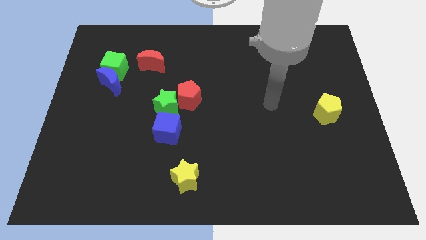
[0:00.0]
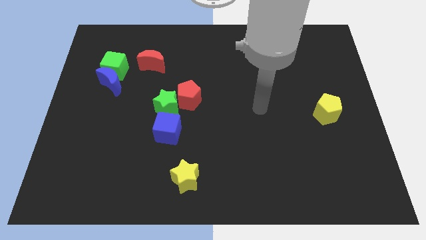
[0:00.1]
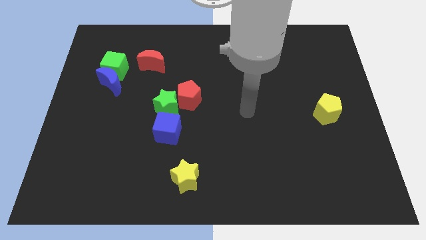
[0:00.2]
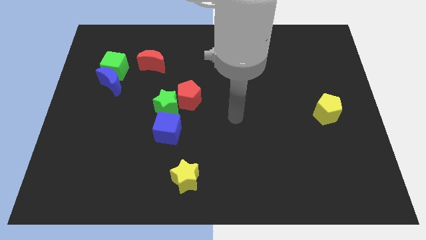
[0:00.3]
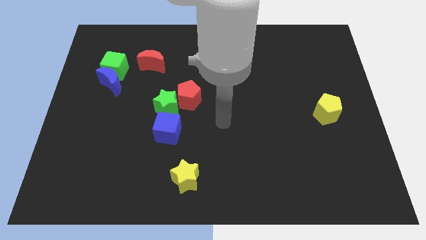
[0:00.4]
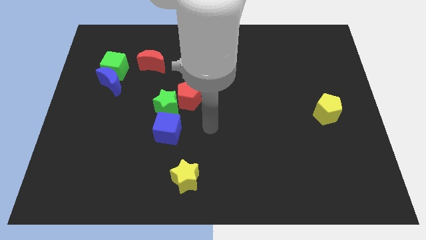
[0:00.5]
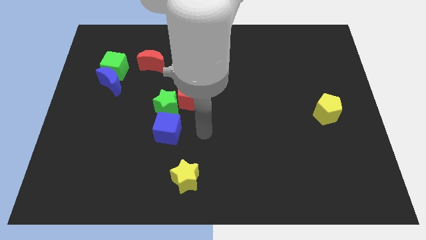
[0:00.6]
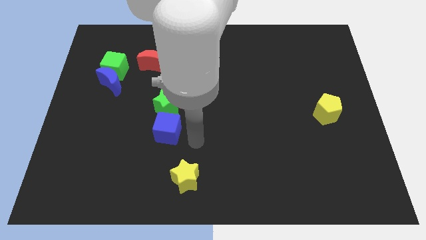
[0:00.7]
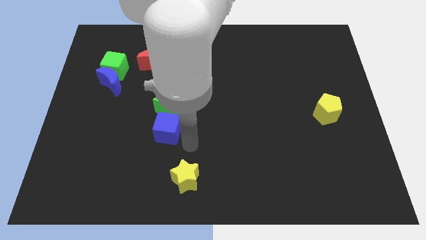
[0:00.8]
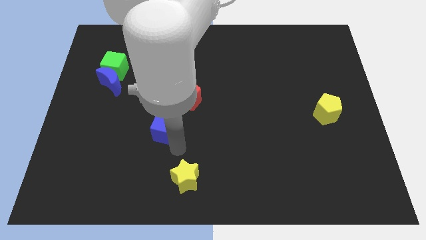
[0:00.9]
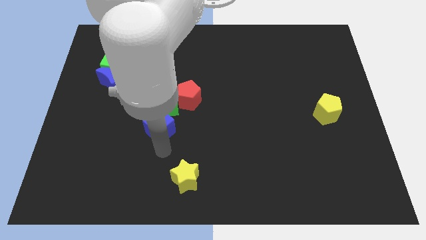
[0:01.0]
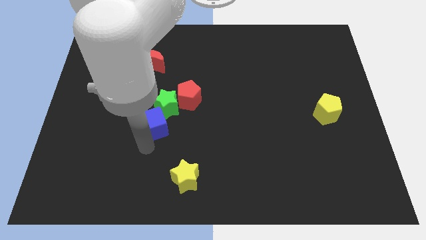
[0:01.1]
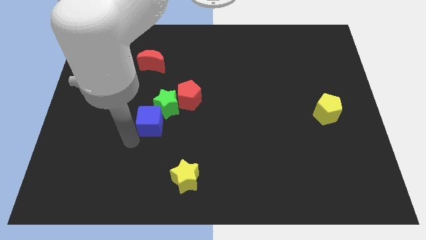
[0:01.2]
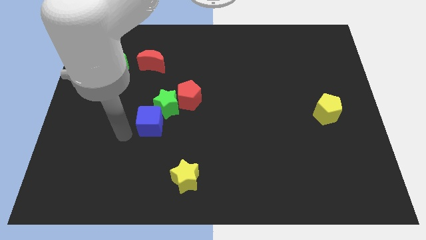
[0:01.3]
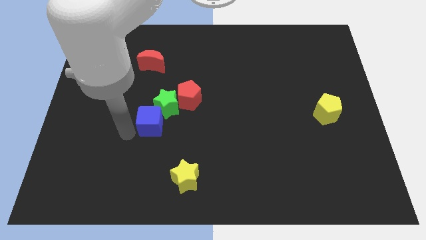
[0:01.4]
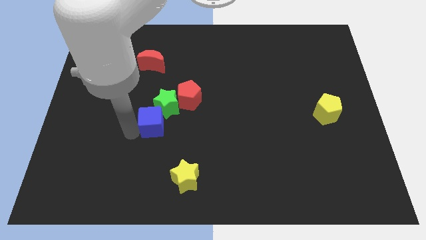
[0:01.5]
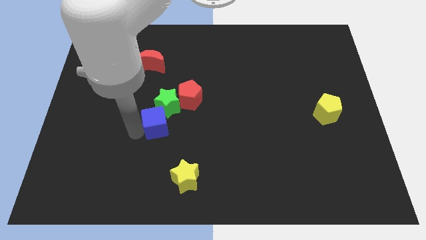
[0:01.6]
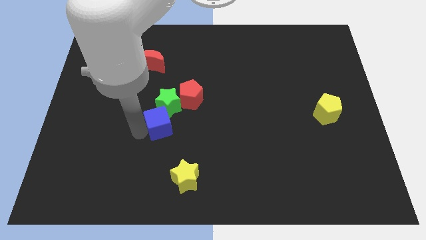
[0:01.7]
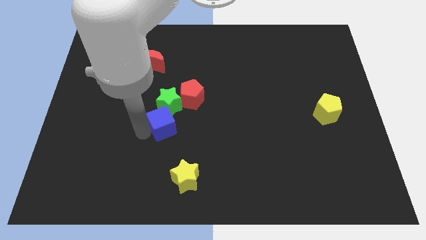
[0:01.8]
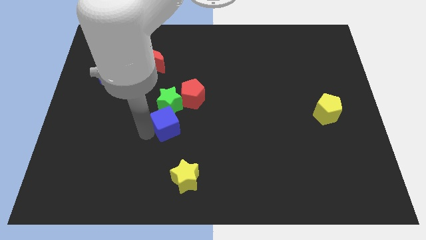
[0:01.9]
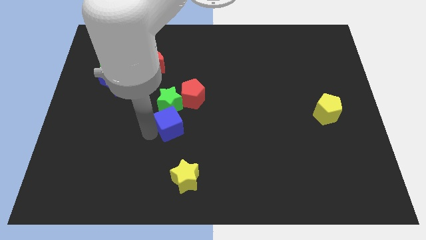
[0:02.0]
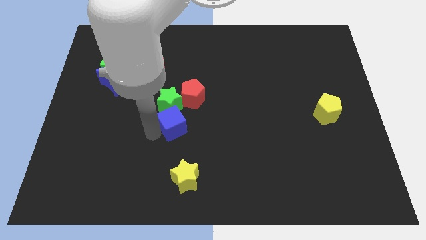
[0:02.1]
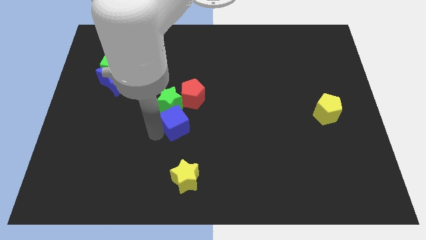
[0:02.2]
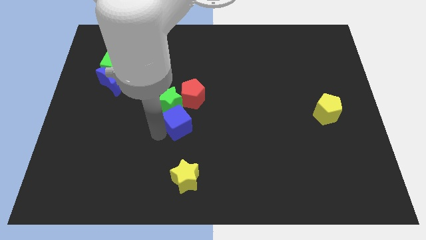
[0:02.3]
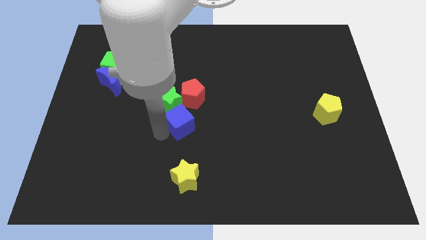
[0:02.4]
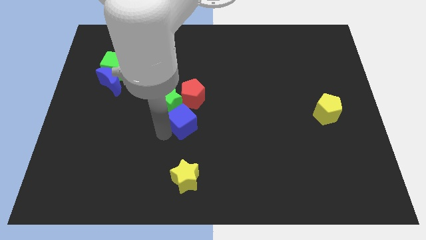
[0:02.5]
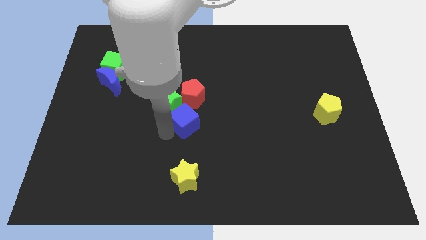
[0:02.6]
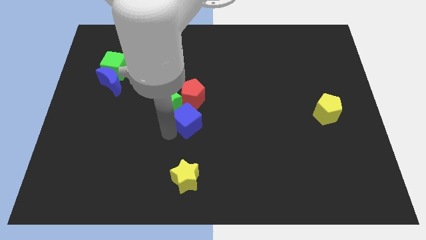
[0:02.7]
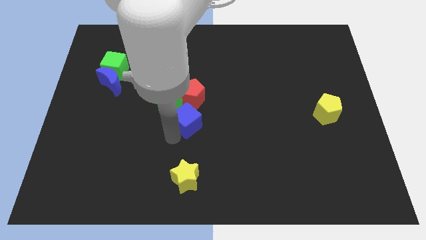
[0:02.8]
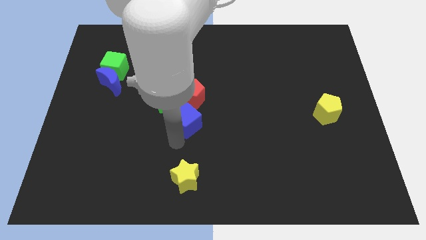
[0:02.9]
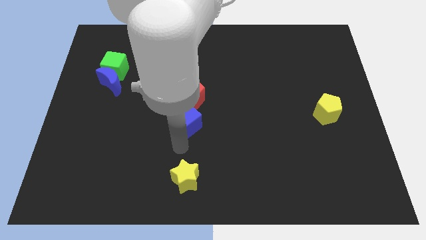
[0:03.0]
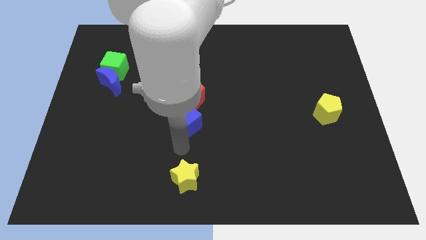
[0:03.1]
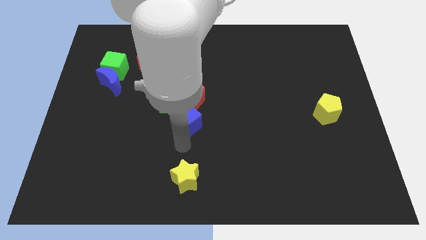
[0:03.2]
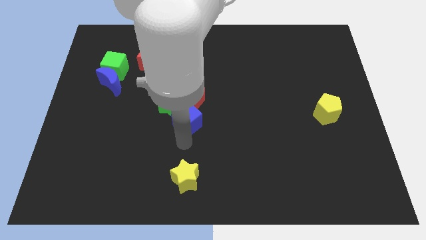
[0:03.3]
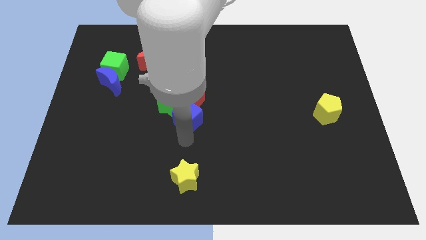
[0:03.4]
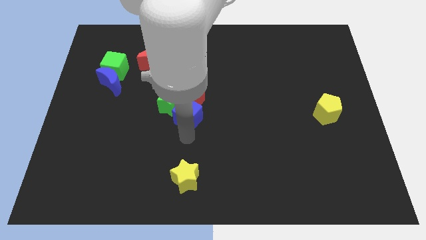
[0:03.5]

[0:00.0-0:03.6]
move the blue cube next to the red pentagon

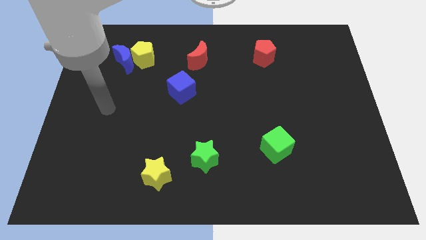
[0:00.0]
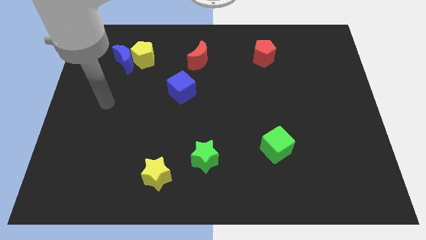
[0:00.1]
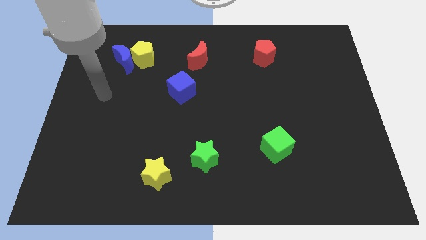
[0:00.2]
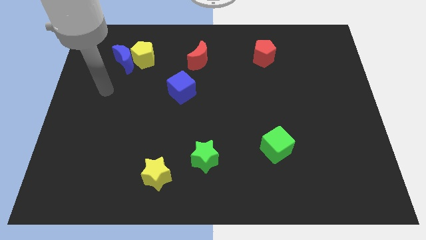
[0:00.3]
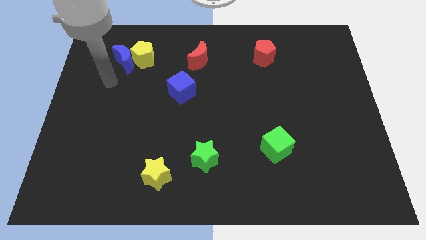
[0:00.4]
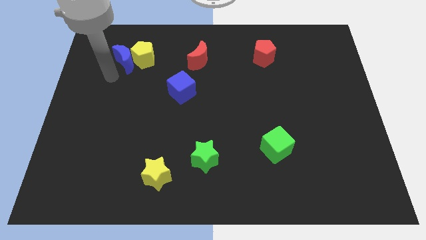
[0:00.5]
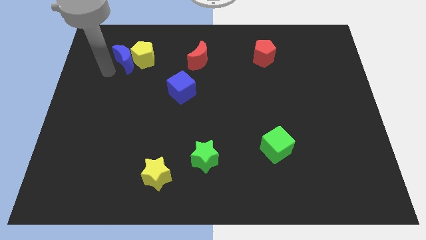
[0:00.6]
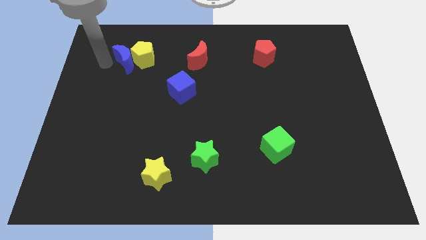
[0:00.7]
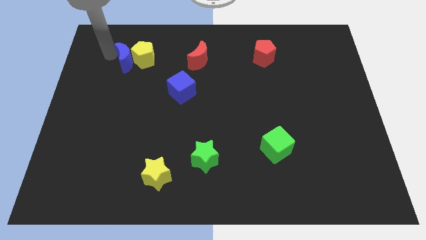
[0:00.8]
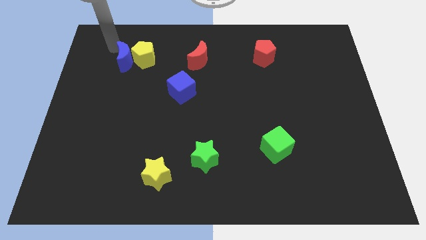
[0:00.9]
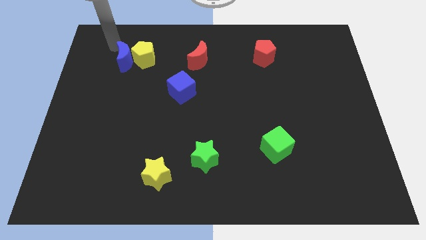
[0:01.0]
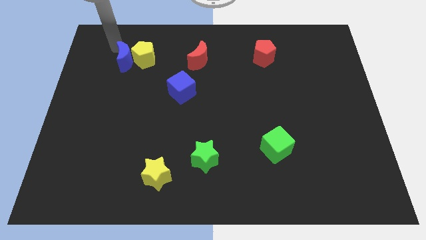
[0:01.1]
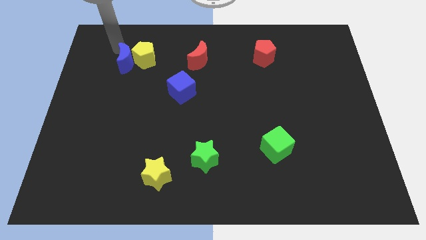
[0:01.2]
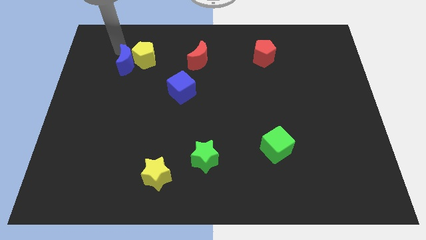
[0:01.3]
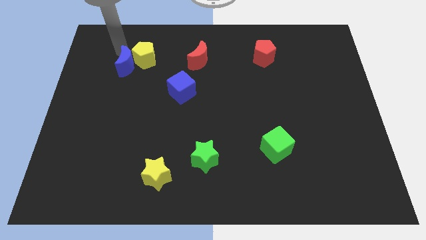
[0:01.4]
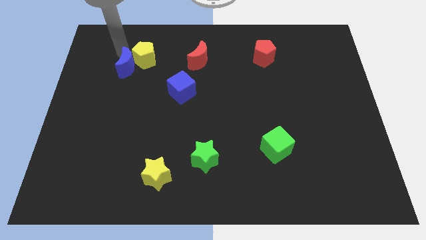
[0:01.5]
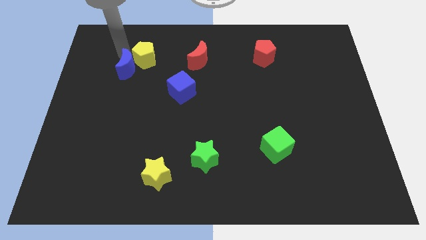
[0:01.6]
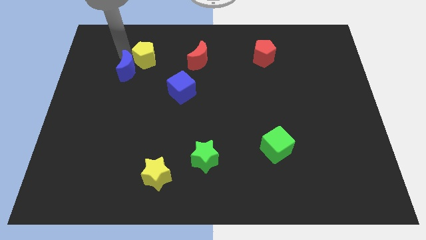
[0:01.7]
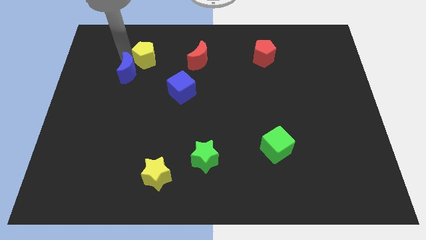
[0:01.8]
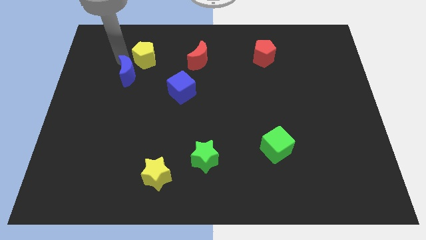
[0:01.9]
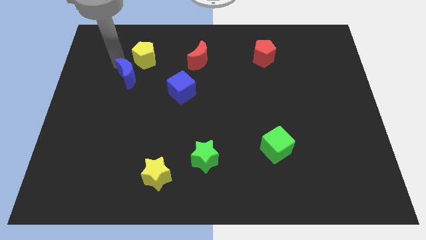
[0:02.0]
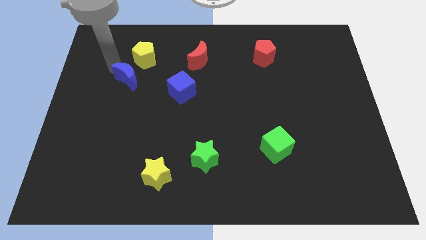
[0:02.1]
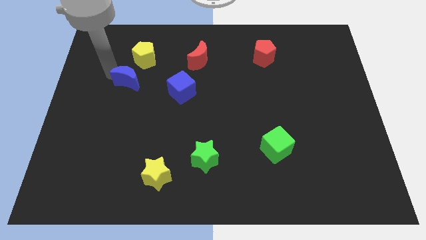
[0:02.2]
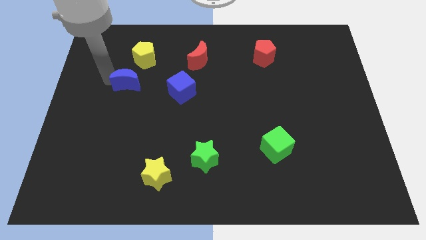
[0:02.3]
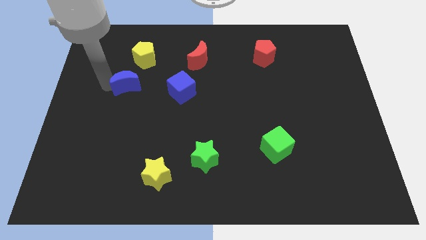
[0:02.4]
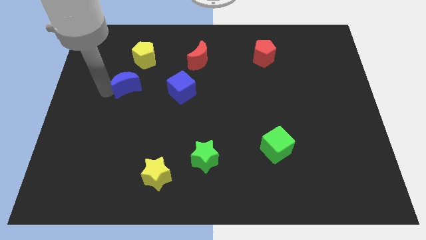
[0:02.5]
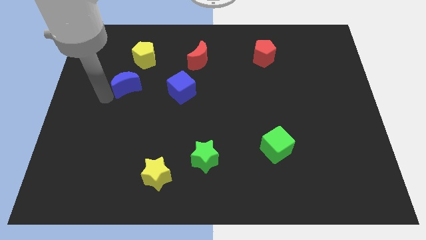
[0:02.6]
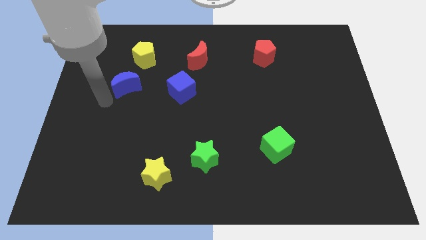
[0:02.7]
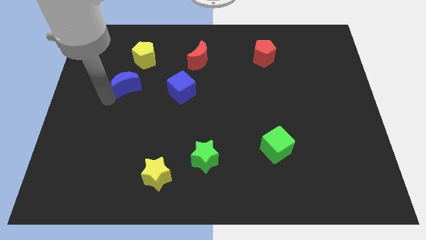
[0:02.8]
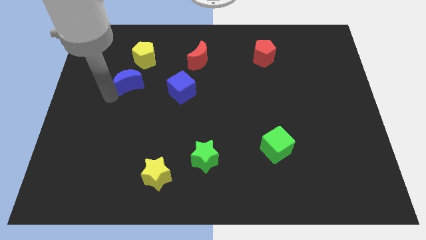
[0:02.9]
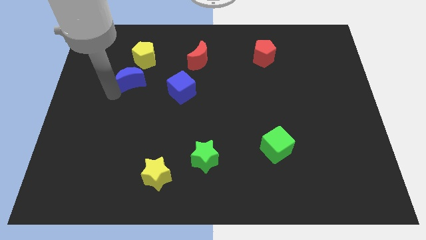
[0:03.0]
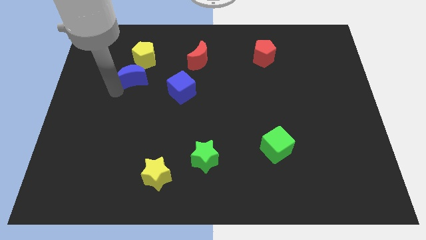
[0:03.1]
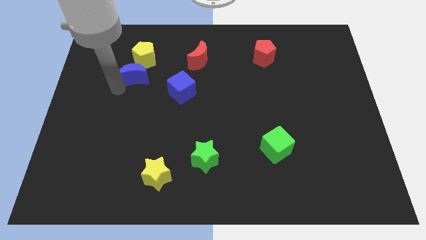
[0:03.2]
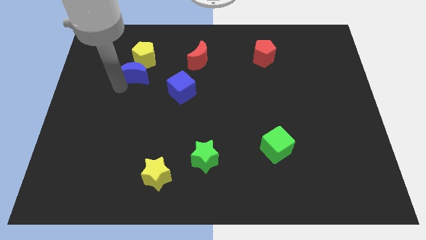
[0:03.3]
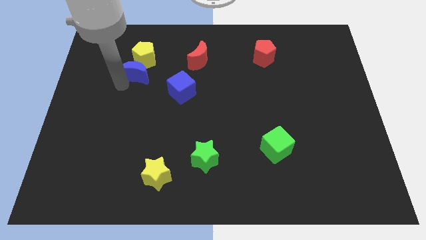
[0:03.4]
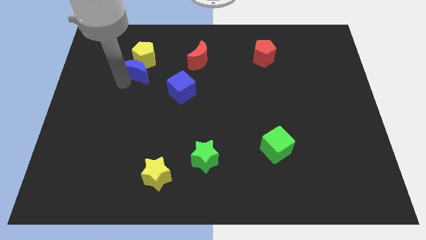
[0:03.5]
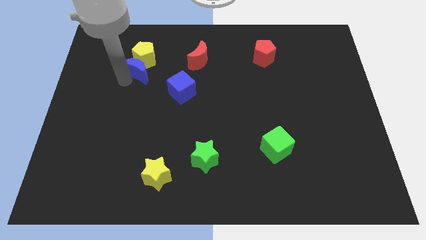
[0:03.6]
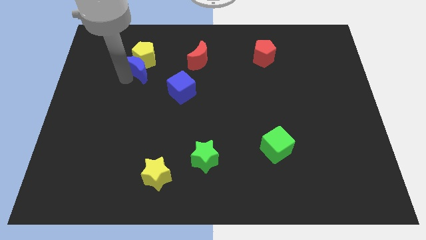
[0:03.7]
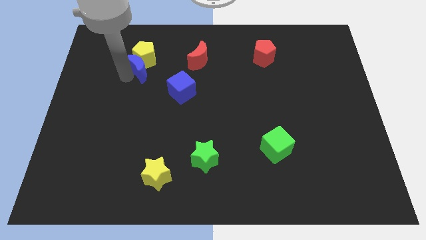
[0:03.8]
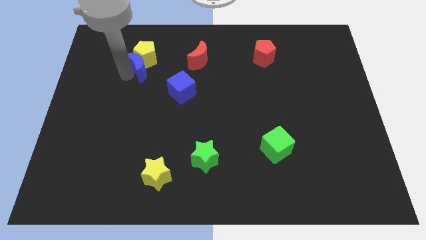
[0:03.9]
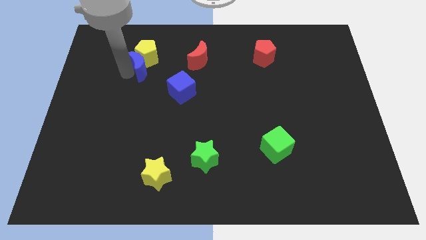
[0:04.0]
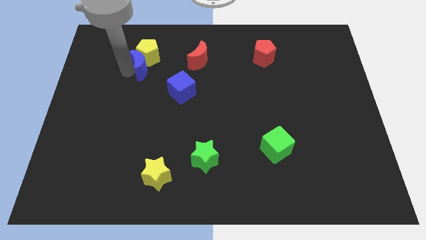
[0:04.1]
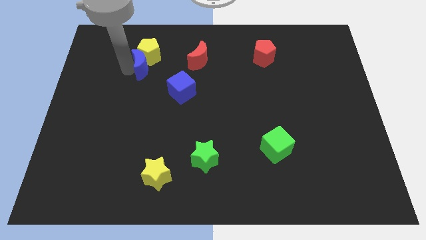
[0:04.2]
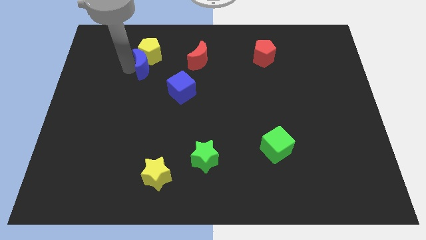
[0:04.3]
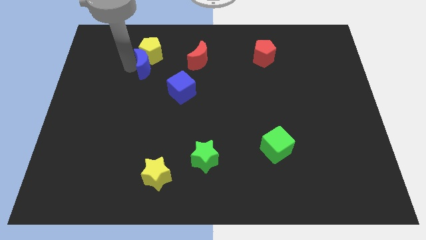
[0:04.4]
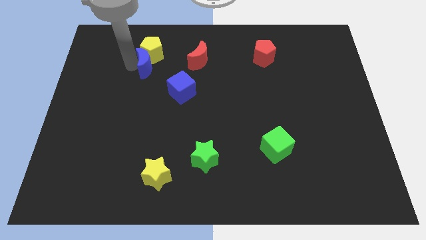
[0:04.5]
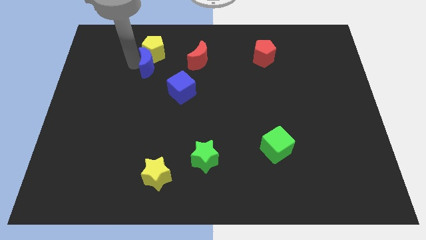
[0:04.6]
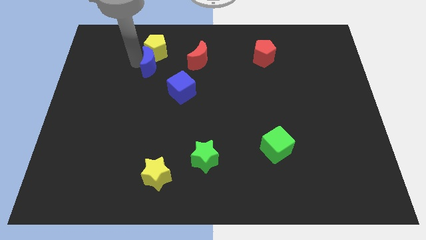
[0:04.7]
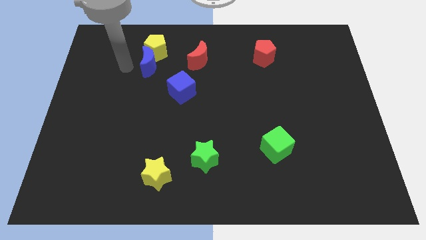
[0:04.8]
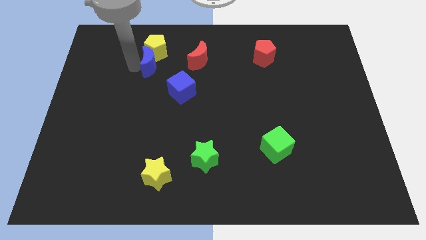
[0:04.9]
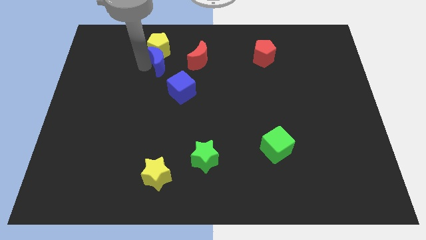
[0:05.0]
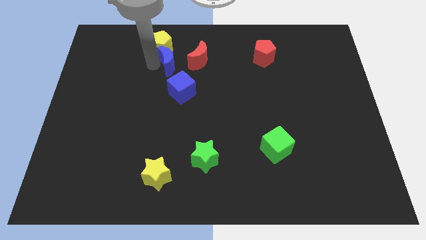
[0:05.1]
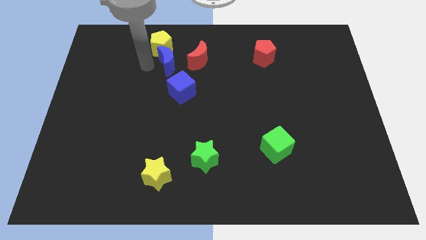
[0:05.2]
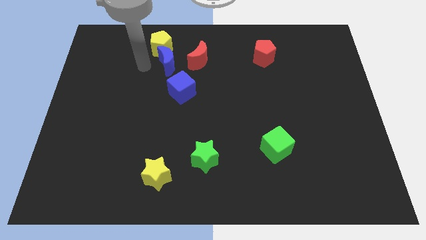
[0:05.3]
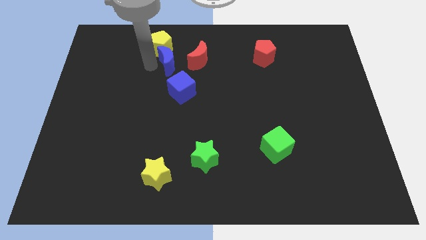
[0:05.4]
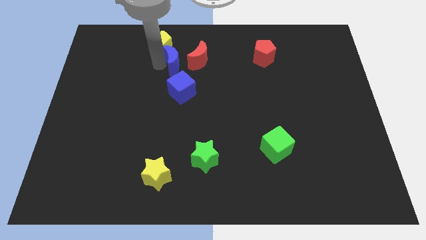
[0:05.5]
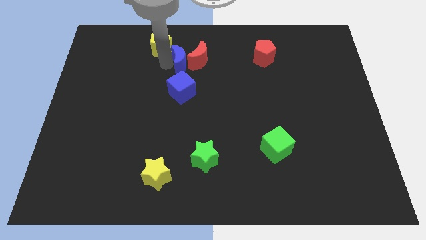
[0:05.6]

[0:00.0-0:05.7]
push the blue moon towards the red moon
